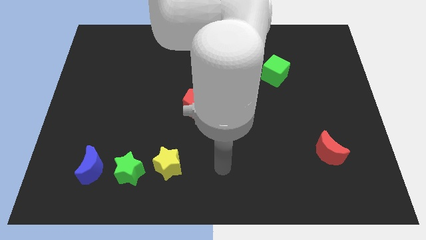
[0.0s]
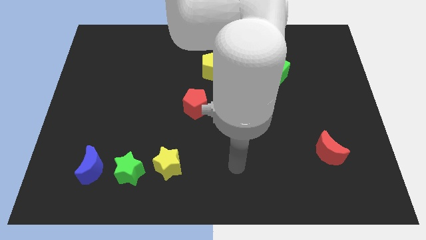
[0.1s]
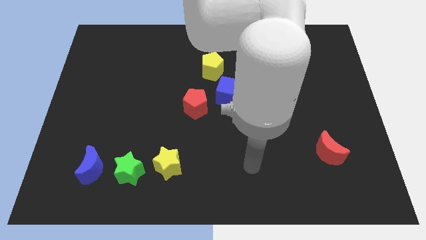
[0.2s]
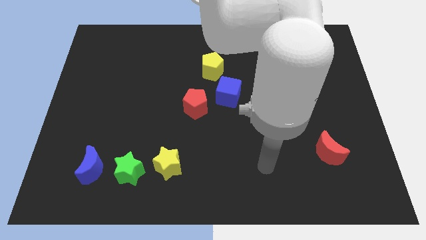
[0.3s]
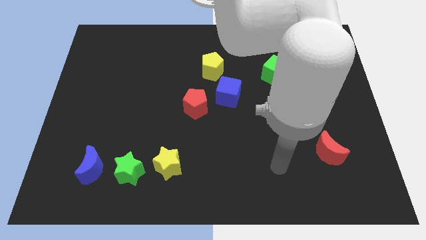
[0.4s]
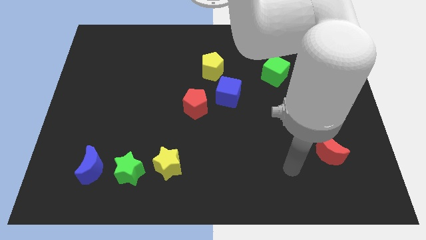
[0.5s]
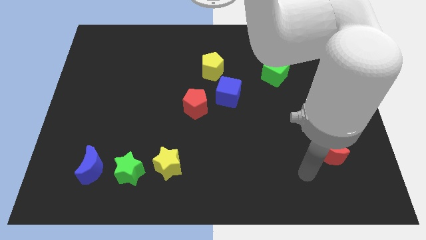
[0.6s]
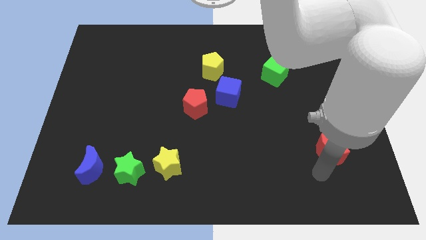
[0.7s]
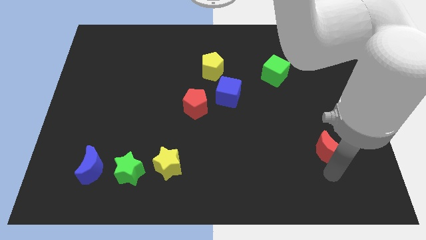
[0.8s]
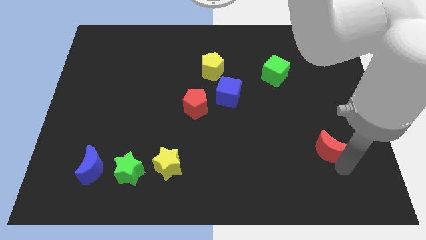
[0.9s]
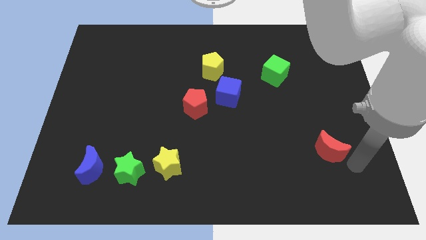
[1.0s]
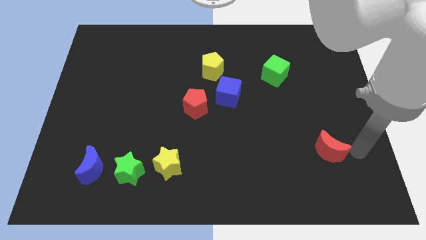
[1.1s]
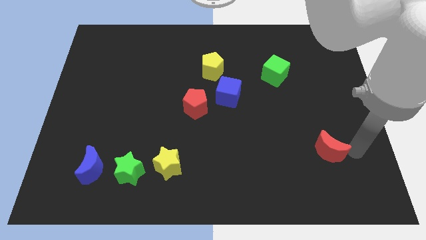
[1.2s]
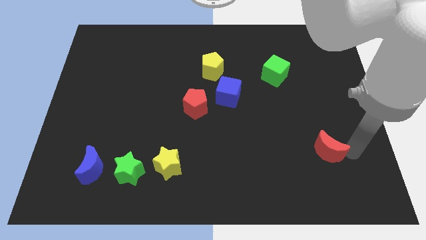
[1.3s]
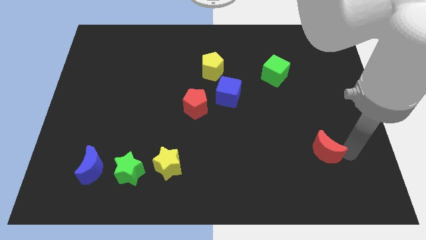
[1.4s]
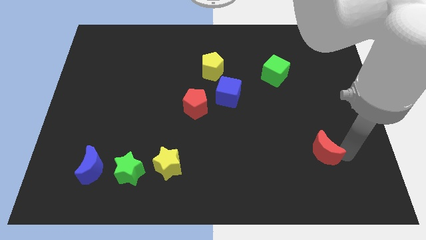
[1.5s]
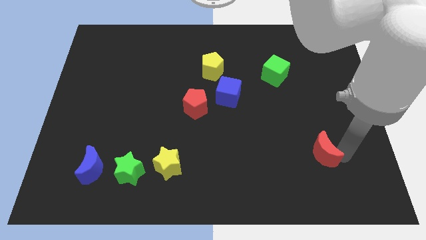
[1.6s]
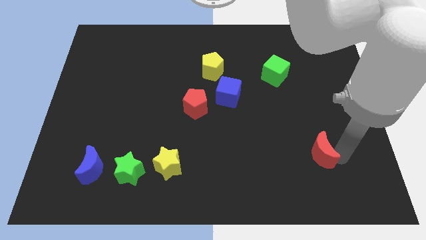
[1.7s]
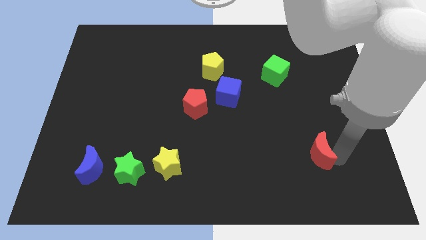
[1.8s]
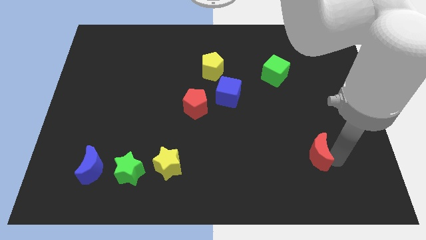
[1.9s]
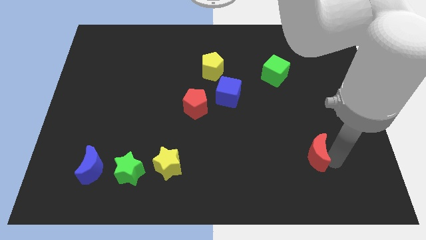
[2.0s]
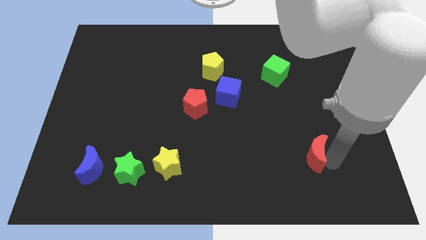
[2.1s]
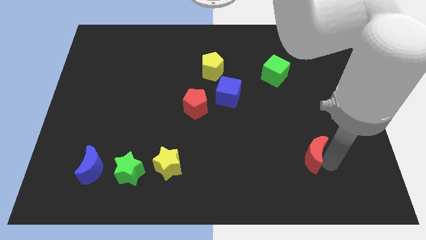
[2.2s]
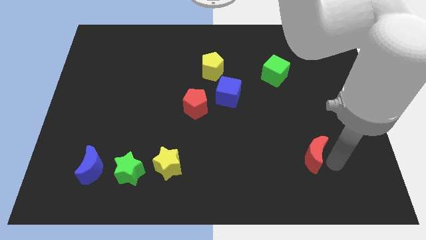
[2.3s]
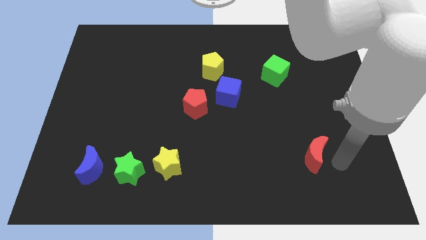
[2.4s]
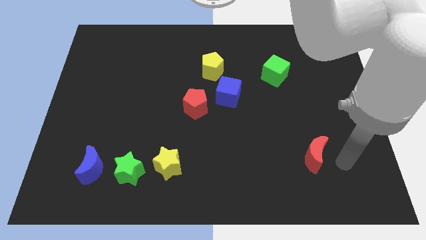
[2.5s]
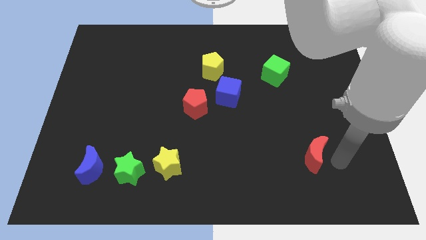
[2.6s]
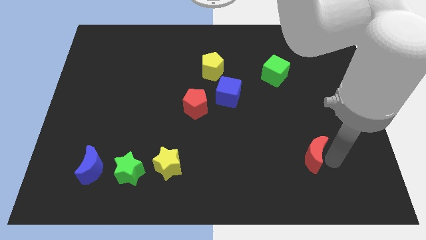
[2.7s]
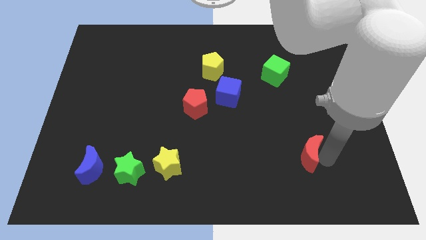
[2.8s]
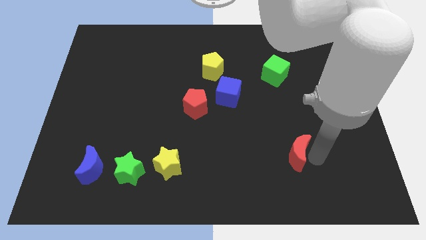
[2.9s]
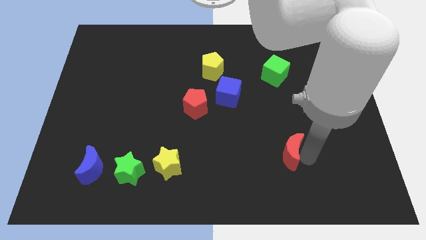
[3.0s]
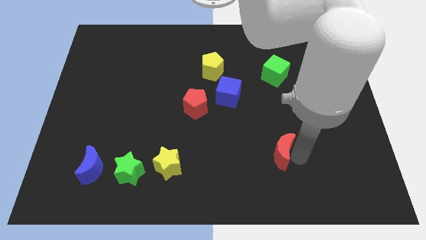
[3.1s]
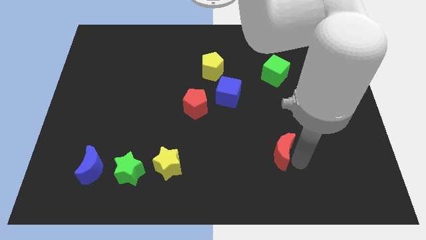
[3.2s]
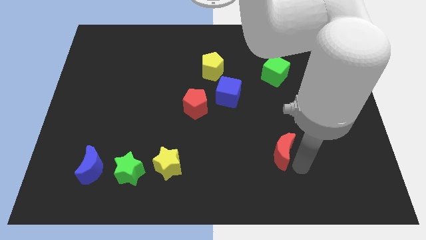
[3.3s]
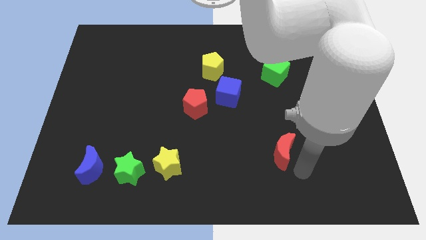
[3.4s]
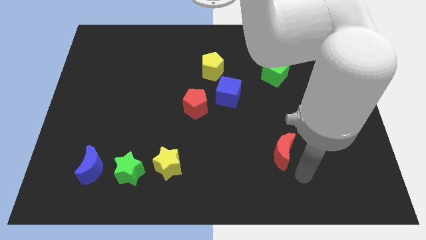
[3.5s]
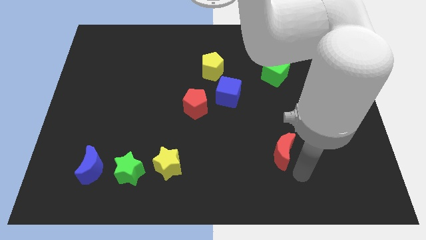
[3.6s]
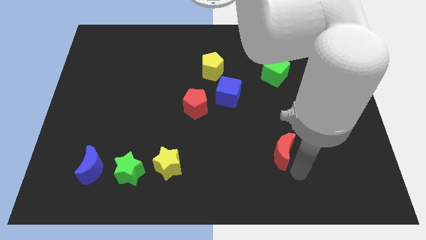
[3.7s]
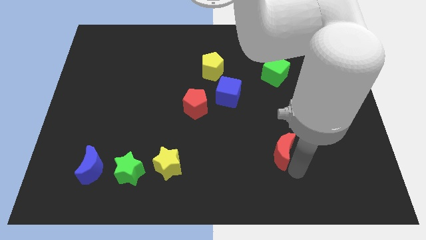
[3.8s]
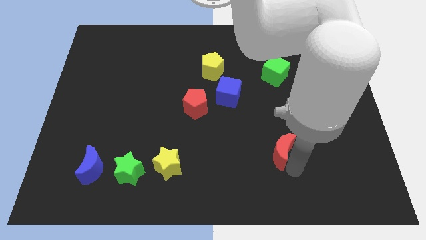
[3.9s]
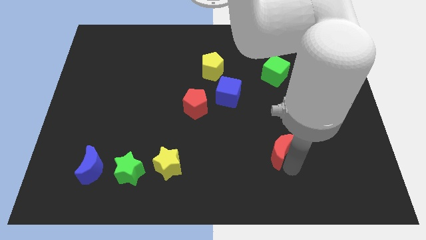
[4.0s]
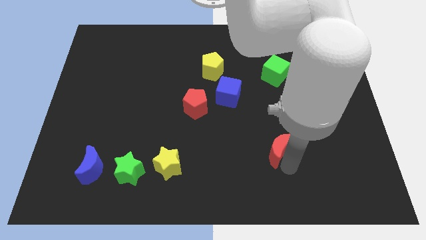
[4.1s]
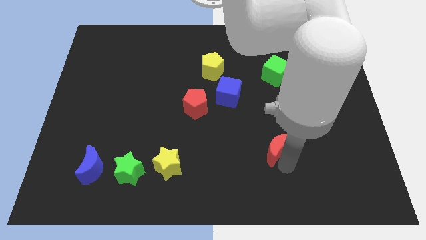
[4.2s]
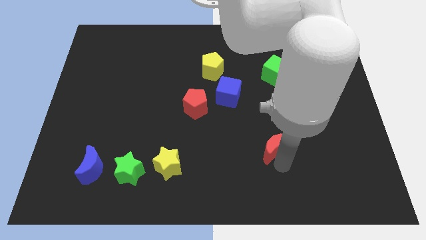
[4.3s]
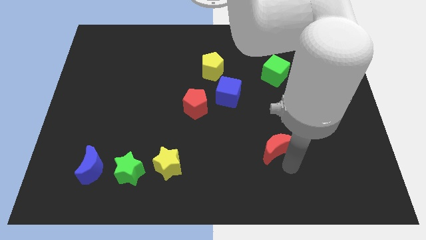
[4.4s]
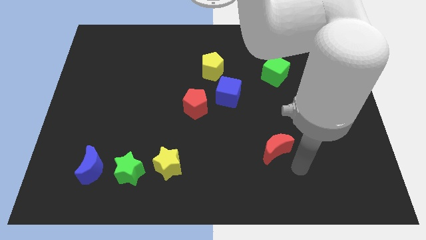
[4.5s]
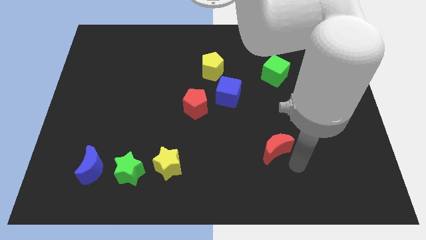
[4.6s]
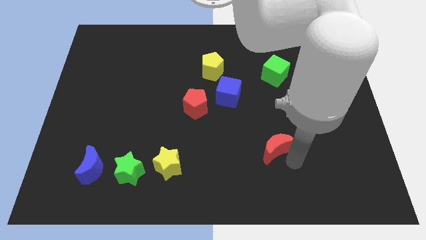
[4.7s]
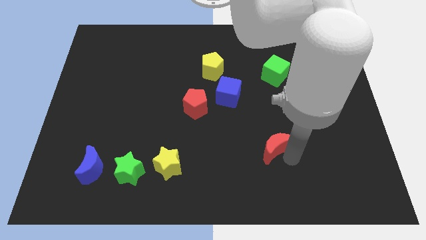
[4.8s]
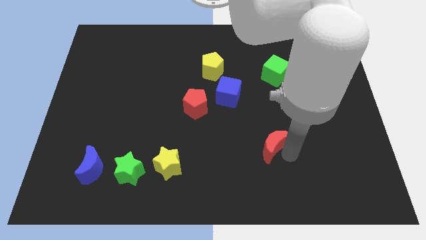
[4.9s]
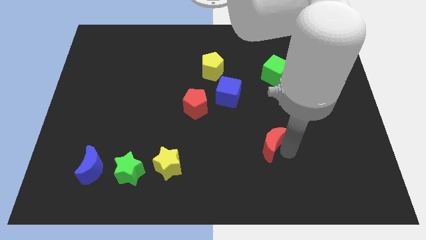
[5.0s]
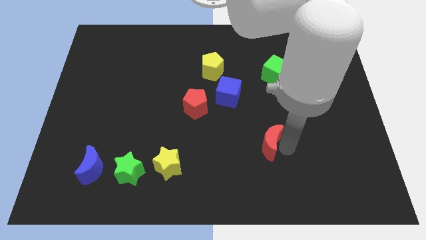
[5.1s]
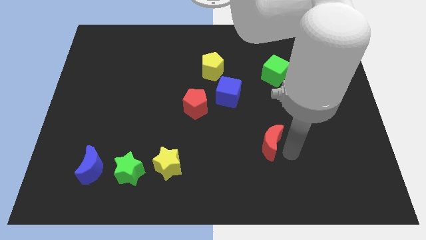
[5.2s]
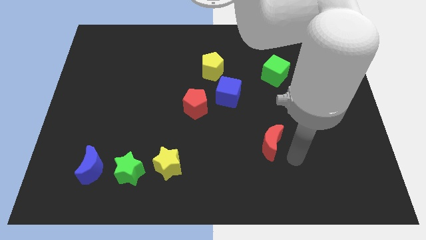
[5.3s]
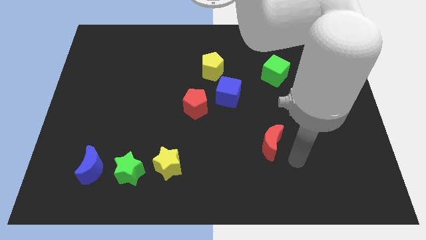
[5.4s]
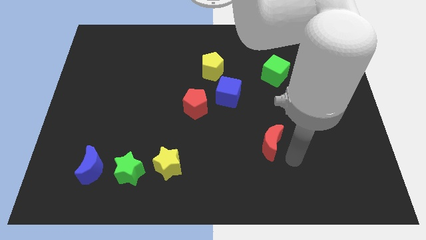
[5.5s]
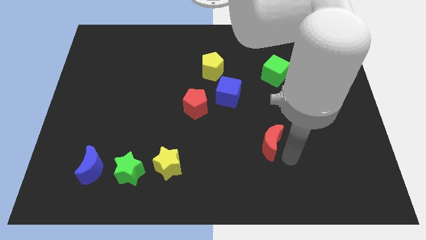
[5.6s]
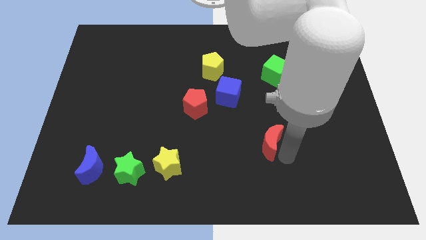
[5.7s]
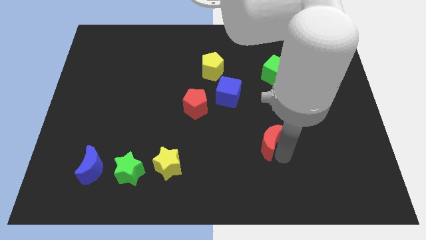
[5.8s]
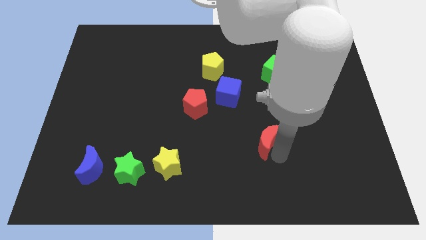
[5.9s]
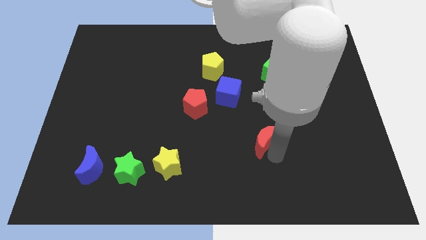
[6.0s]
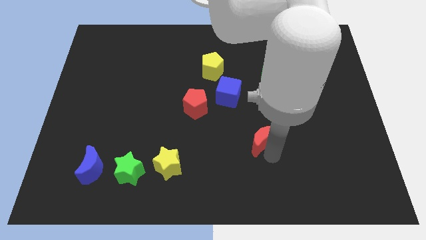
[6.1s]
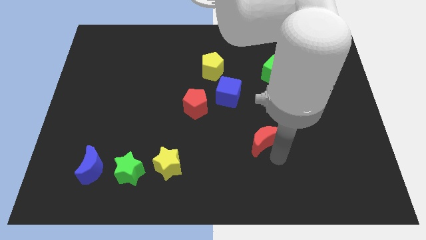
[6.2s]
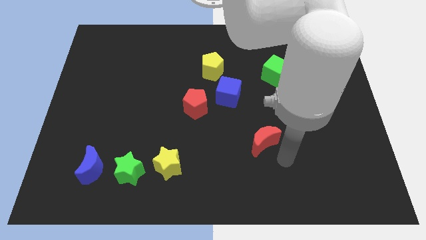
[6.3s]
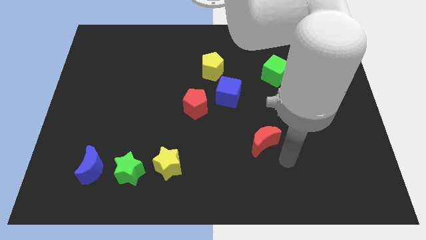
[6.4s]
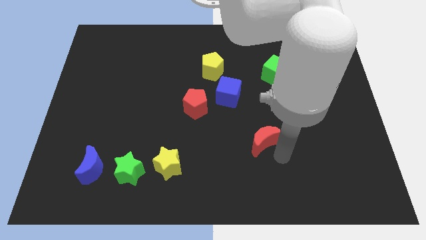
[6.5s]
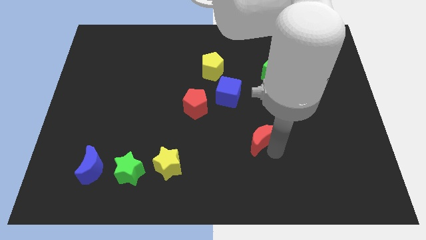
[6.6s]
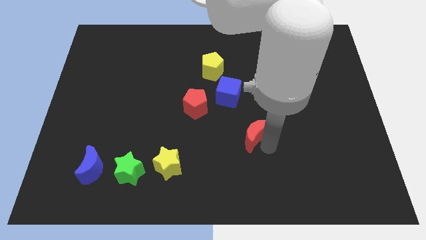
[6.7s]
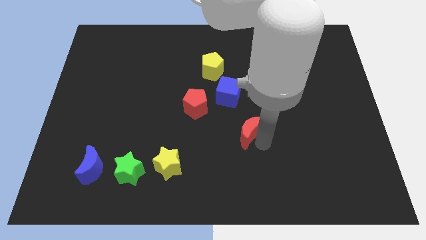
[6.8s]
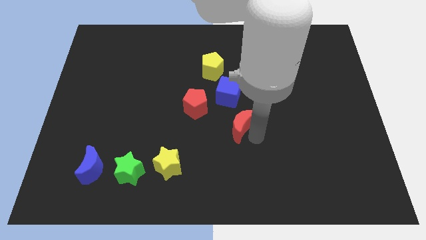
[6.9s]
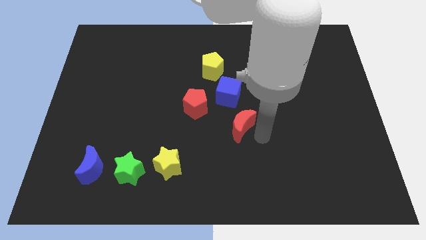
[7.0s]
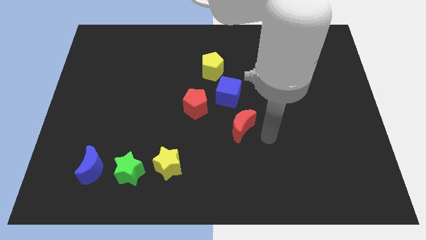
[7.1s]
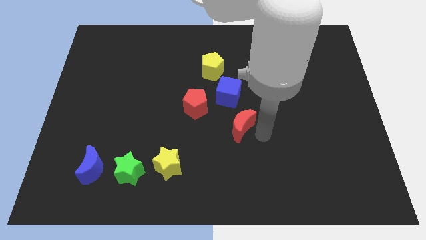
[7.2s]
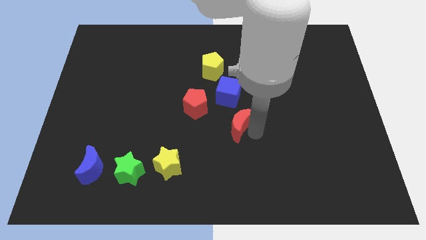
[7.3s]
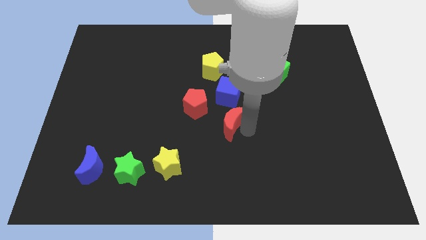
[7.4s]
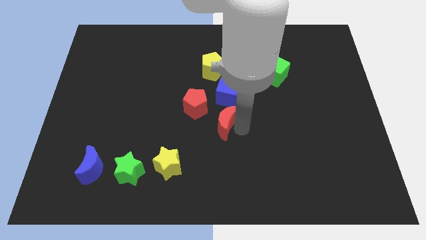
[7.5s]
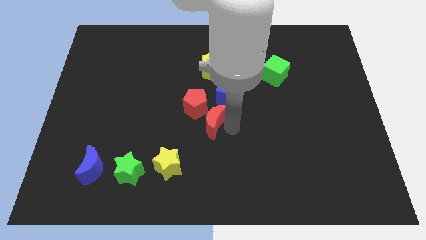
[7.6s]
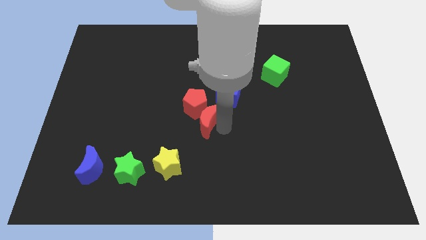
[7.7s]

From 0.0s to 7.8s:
slide the red moon close to the red pentagon
